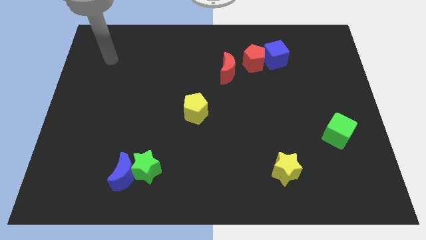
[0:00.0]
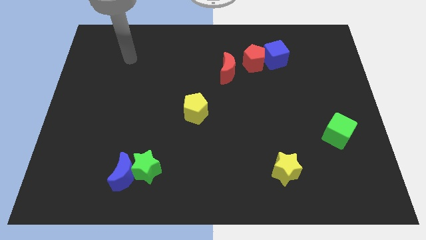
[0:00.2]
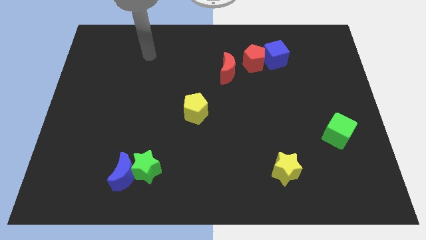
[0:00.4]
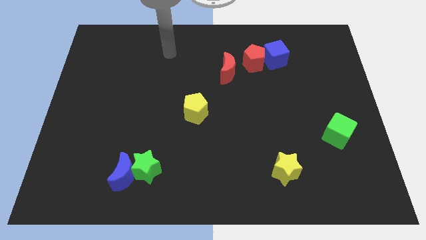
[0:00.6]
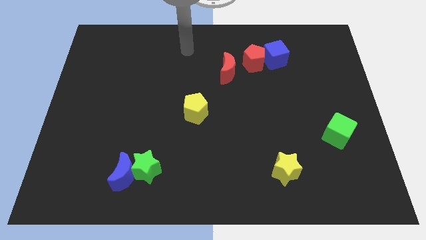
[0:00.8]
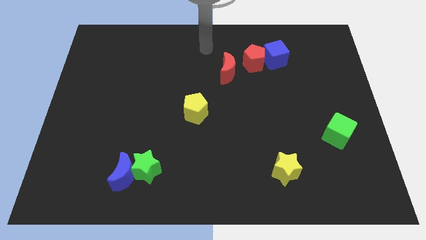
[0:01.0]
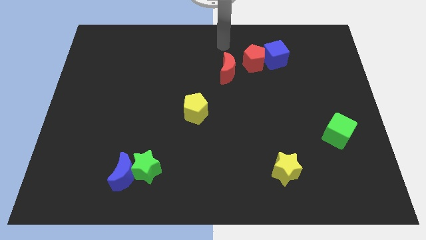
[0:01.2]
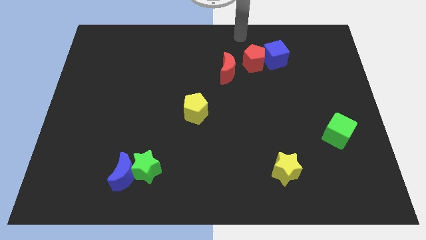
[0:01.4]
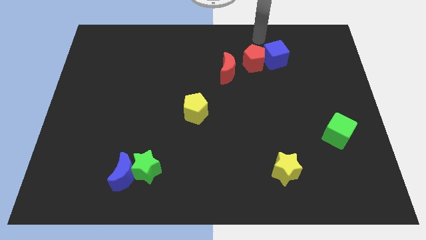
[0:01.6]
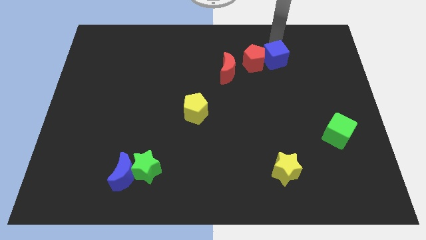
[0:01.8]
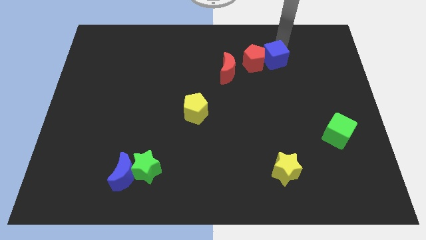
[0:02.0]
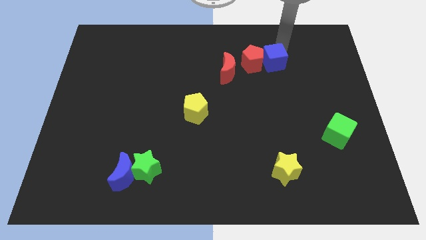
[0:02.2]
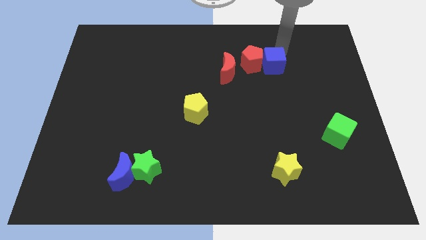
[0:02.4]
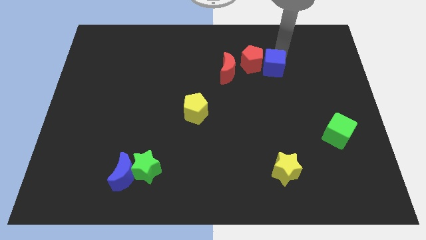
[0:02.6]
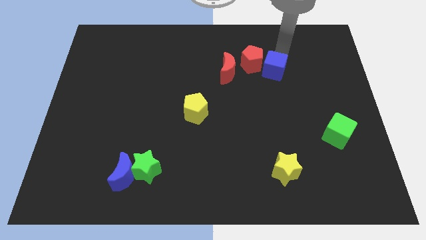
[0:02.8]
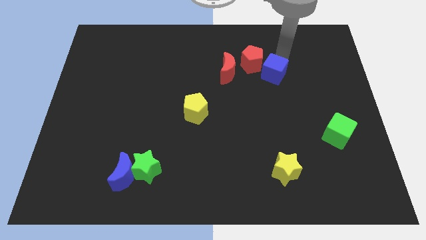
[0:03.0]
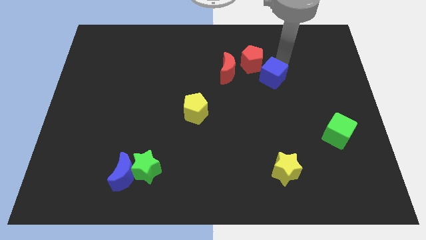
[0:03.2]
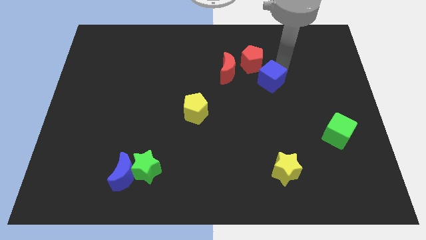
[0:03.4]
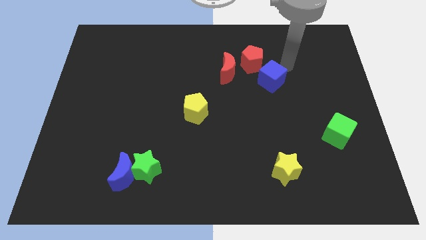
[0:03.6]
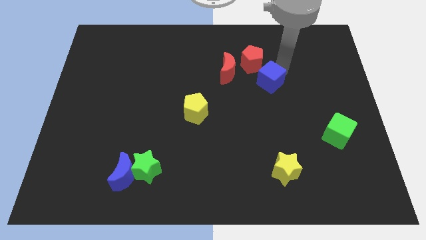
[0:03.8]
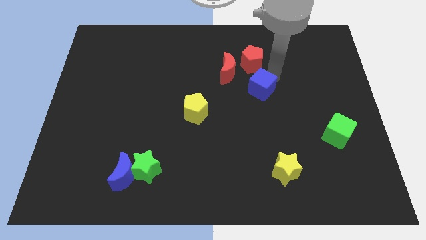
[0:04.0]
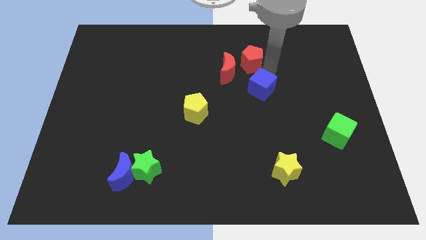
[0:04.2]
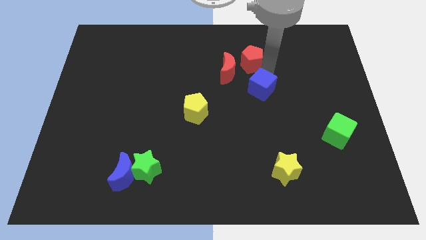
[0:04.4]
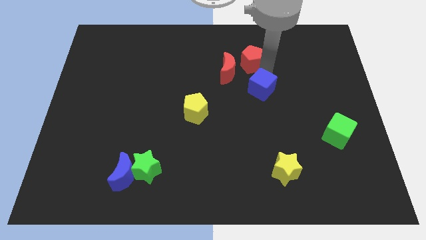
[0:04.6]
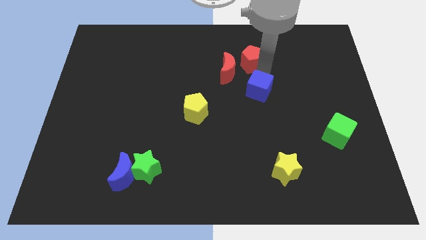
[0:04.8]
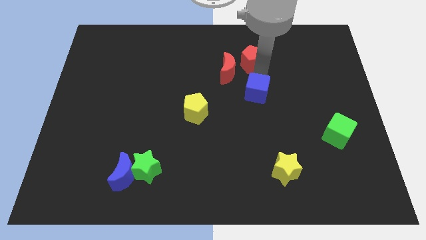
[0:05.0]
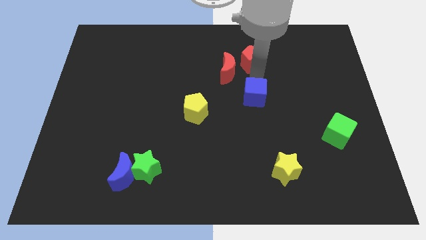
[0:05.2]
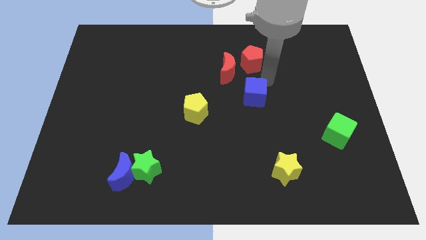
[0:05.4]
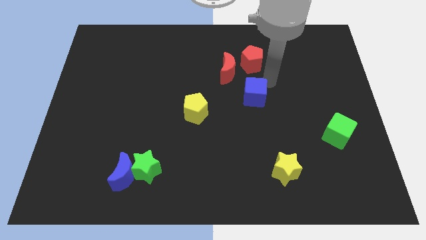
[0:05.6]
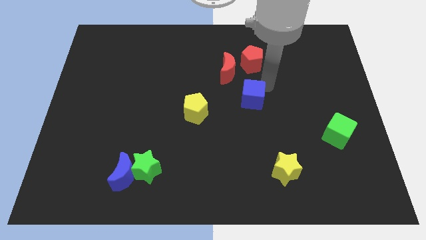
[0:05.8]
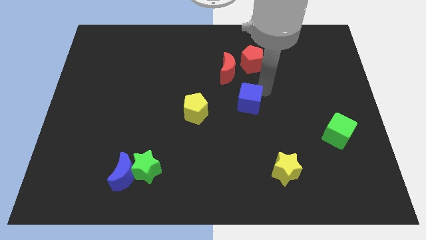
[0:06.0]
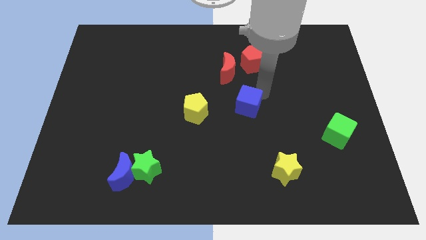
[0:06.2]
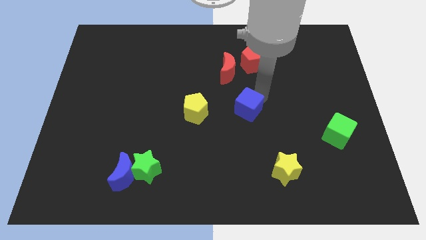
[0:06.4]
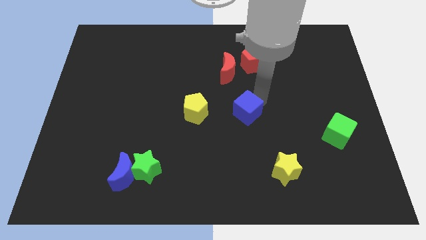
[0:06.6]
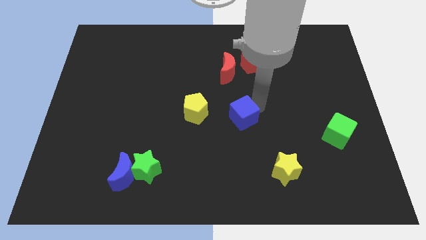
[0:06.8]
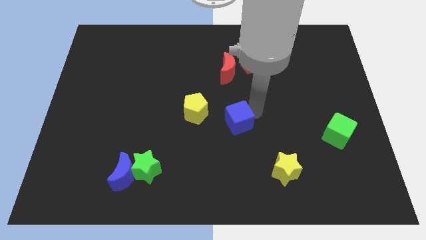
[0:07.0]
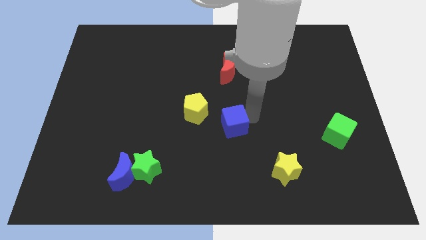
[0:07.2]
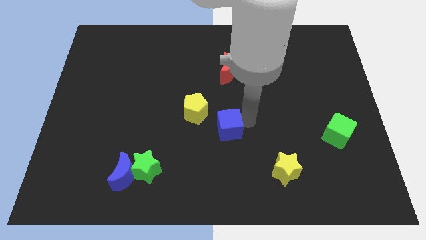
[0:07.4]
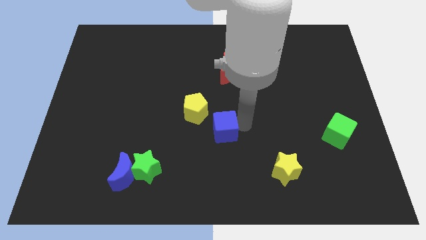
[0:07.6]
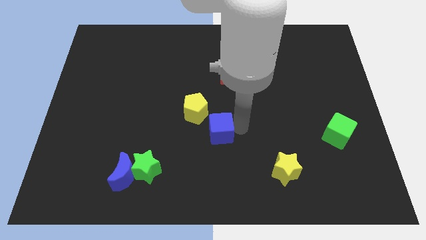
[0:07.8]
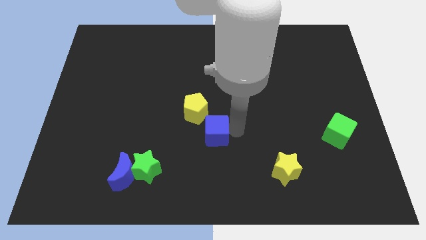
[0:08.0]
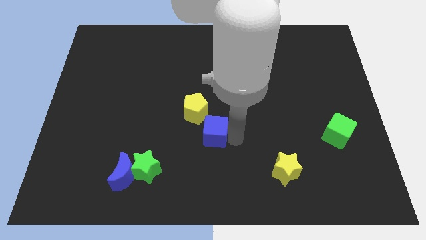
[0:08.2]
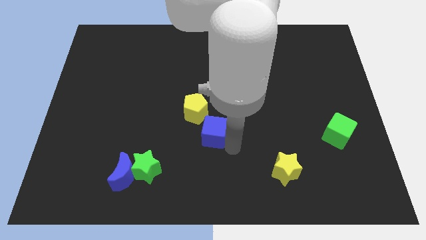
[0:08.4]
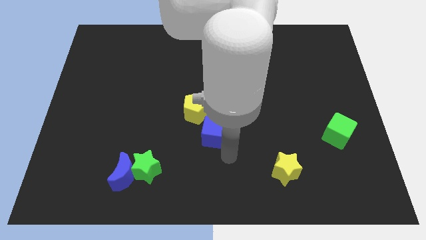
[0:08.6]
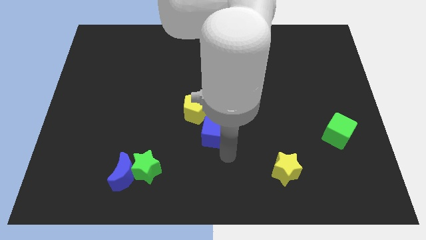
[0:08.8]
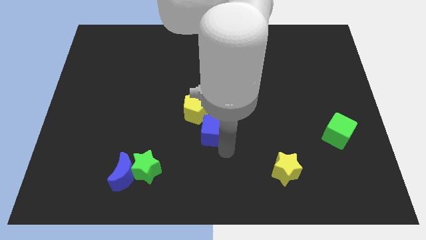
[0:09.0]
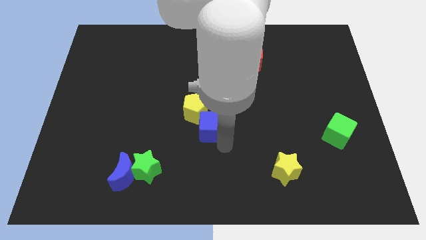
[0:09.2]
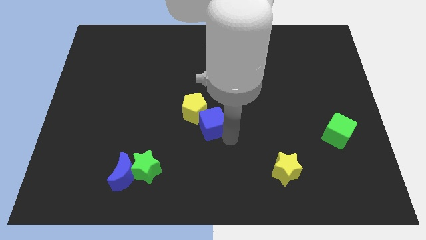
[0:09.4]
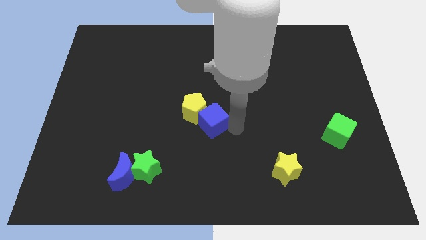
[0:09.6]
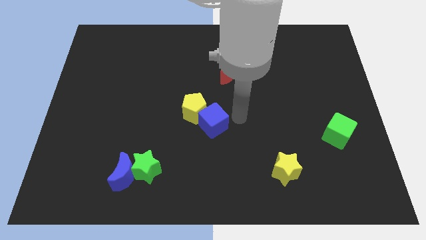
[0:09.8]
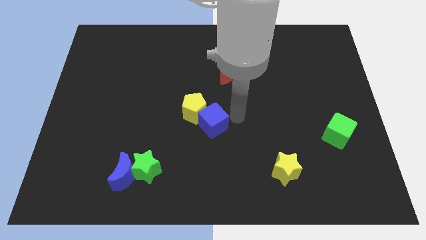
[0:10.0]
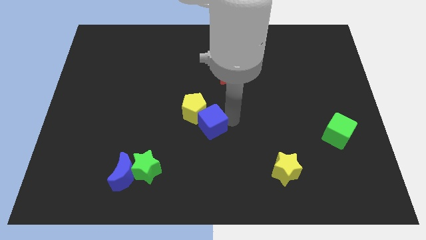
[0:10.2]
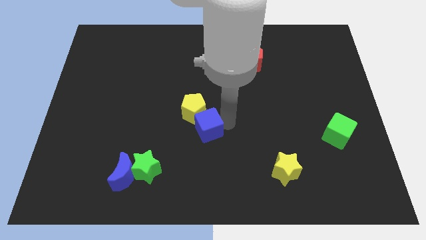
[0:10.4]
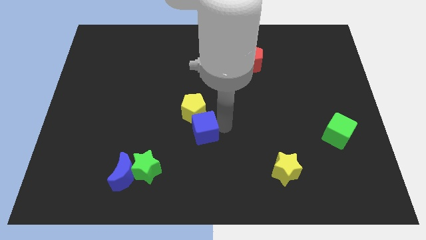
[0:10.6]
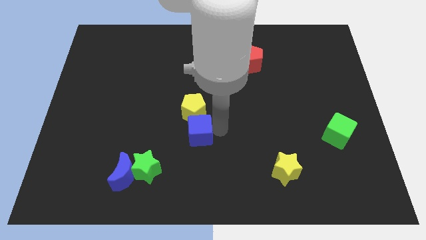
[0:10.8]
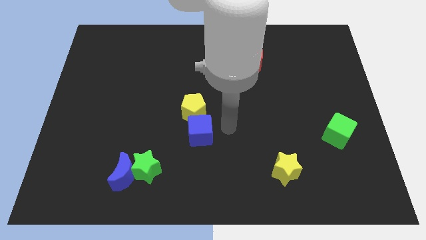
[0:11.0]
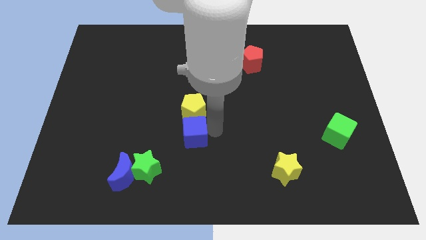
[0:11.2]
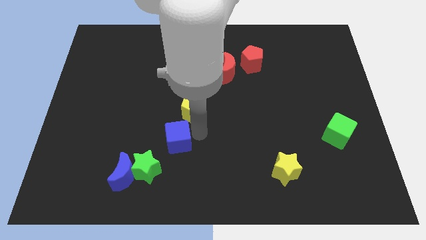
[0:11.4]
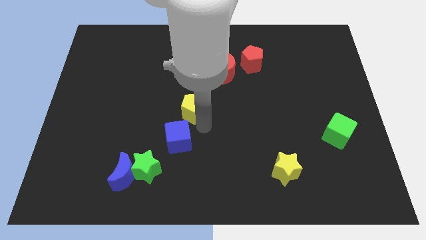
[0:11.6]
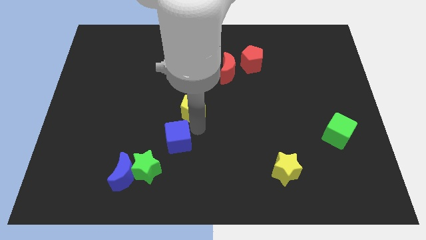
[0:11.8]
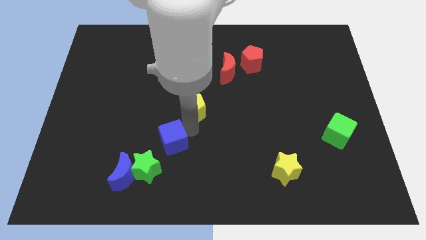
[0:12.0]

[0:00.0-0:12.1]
put the blue cube diagonally up and to the right of the blue moon

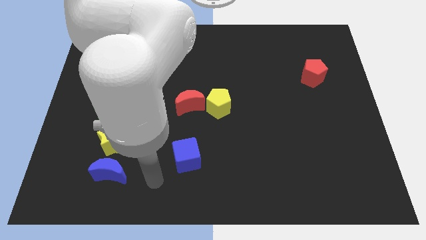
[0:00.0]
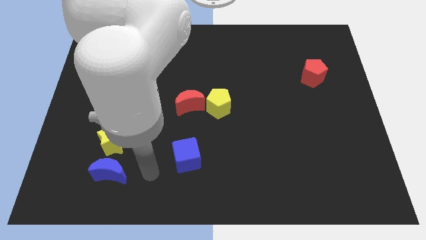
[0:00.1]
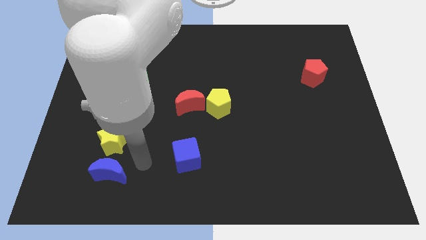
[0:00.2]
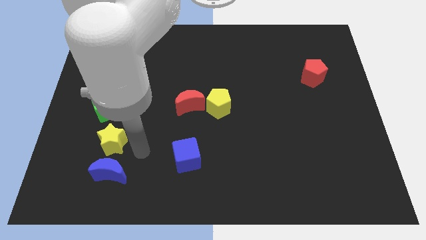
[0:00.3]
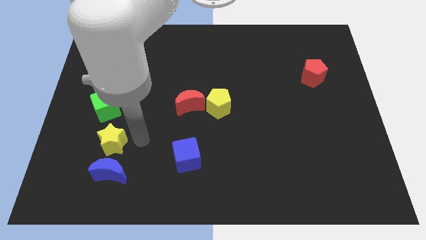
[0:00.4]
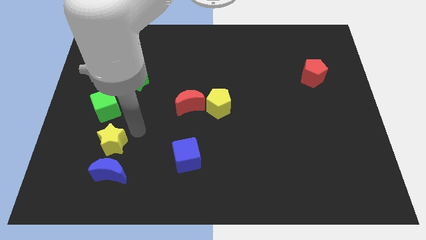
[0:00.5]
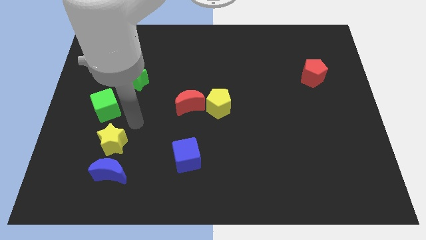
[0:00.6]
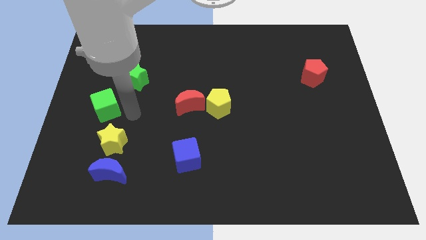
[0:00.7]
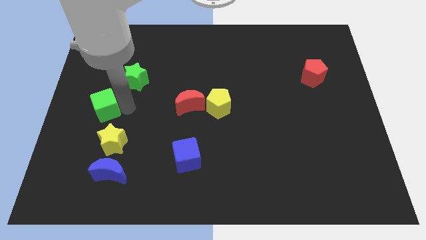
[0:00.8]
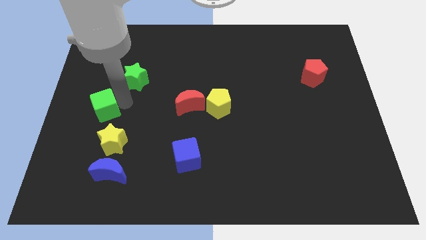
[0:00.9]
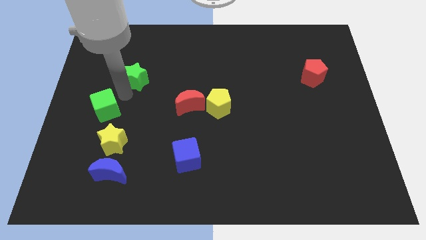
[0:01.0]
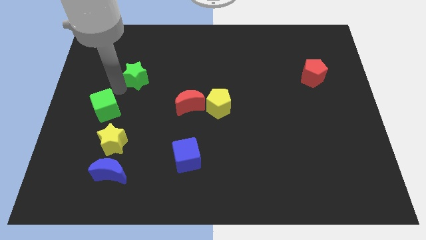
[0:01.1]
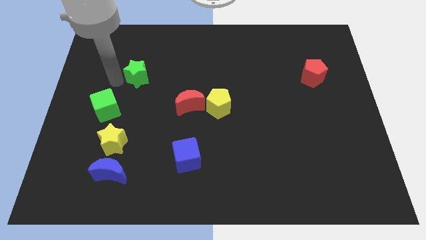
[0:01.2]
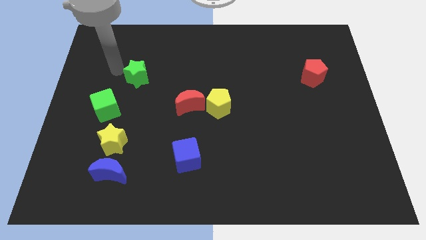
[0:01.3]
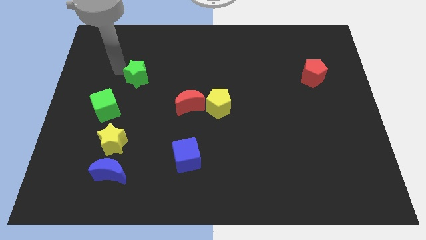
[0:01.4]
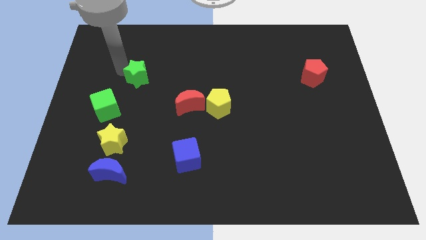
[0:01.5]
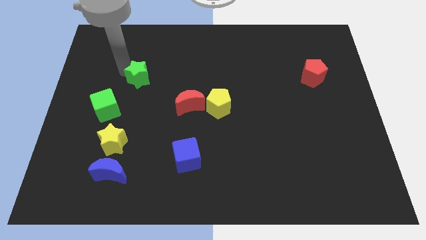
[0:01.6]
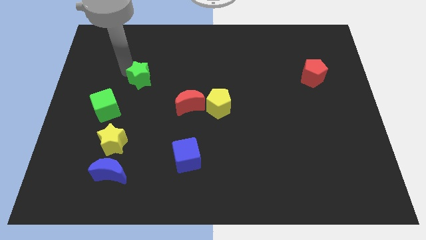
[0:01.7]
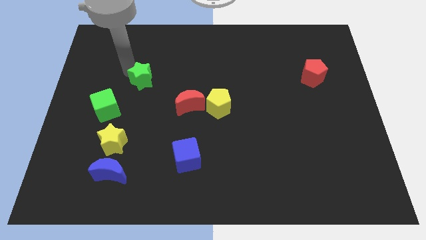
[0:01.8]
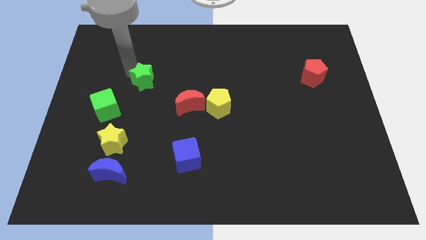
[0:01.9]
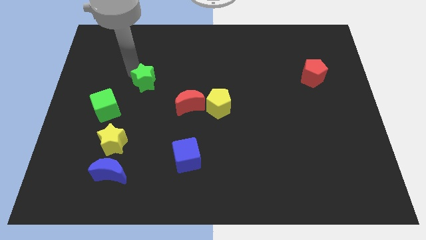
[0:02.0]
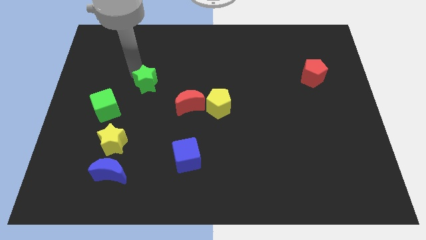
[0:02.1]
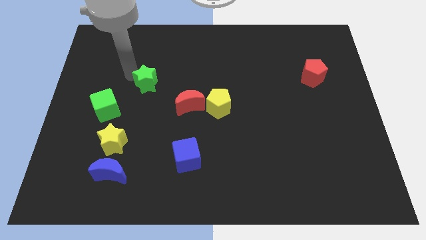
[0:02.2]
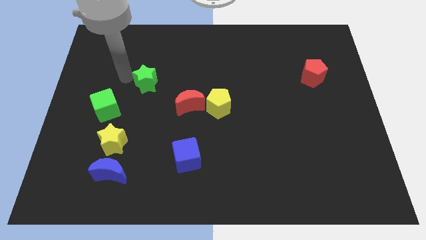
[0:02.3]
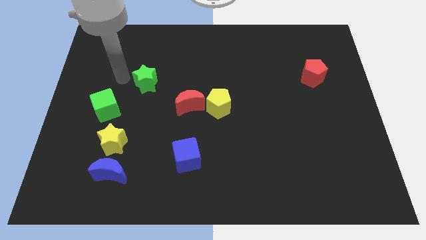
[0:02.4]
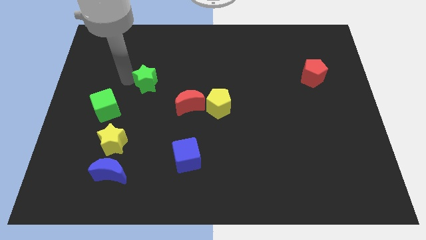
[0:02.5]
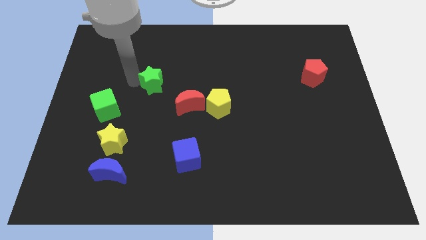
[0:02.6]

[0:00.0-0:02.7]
slide the green star diagonally up and to the left of the red moon
